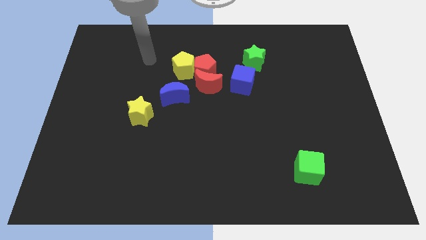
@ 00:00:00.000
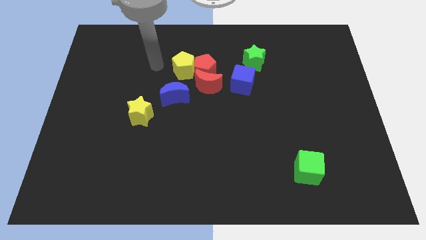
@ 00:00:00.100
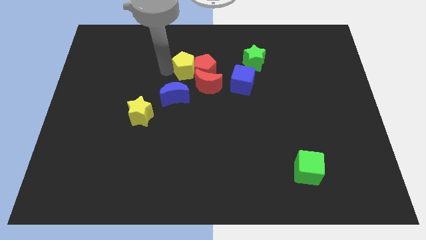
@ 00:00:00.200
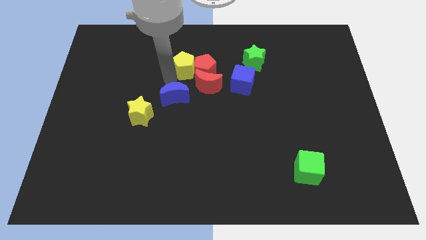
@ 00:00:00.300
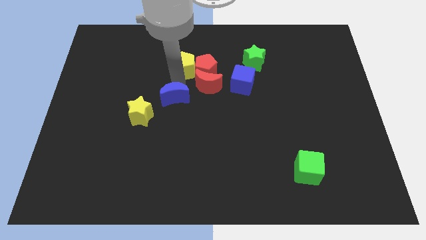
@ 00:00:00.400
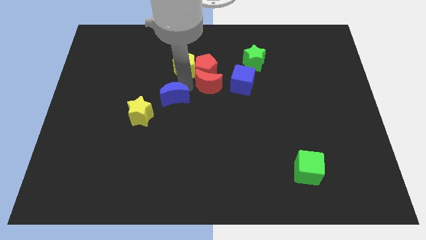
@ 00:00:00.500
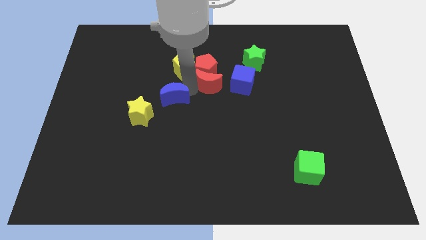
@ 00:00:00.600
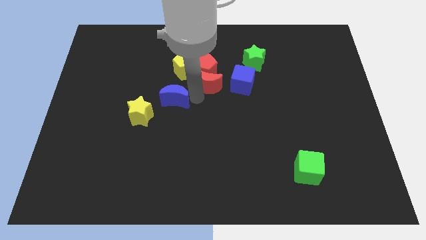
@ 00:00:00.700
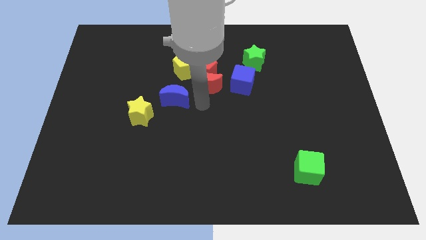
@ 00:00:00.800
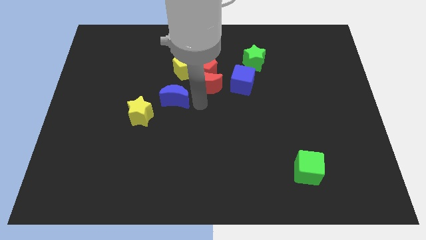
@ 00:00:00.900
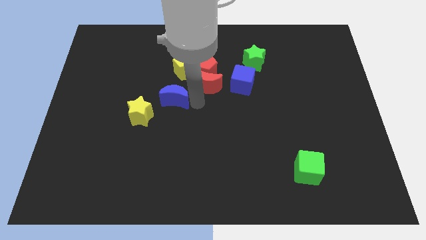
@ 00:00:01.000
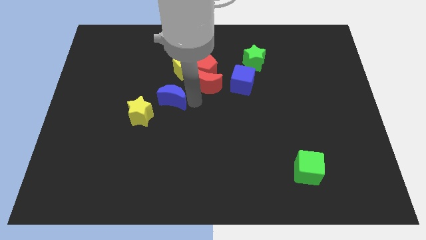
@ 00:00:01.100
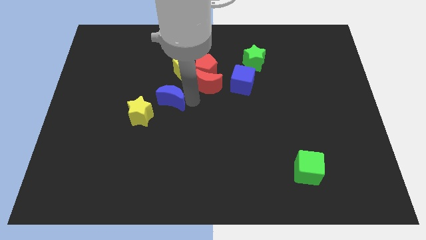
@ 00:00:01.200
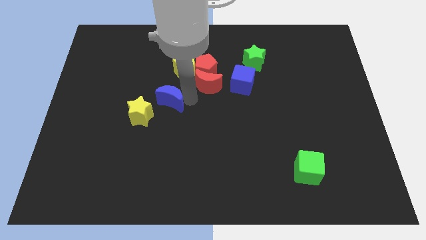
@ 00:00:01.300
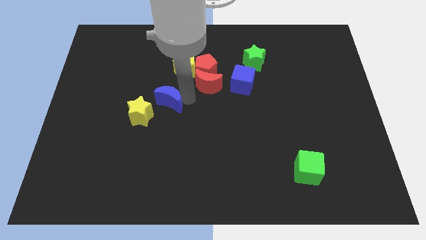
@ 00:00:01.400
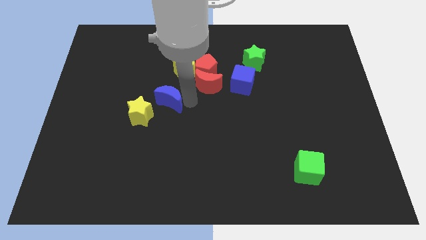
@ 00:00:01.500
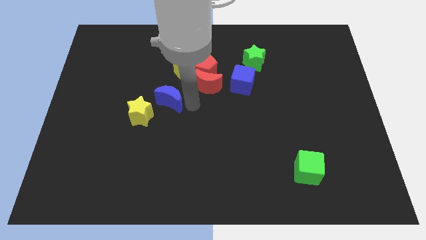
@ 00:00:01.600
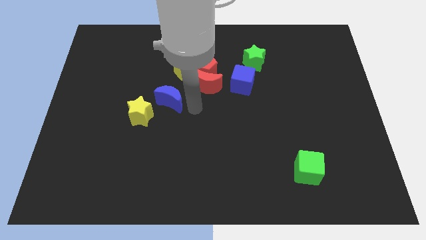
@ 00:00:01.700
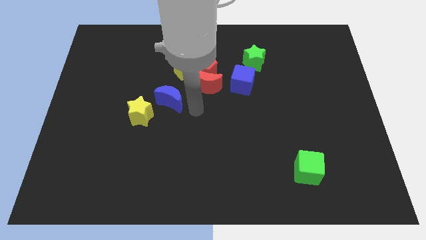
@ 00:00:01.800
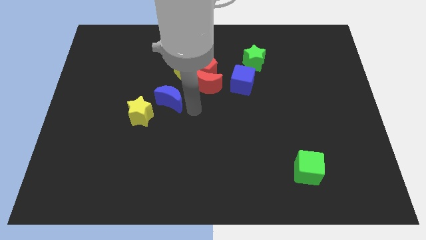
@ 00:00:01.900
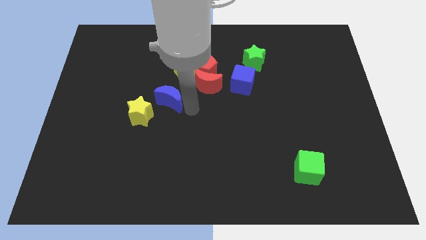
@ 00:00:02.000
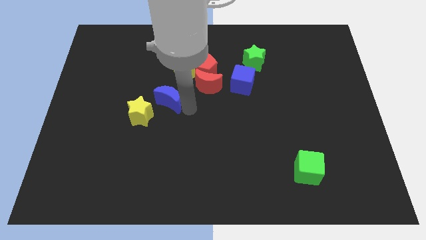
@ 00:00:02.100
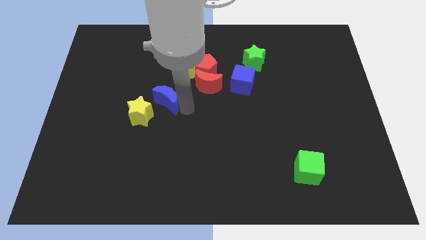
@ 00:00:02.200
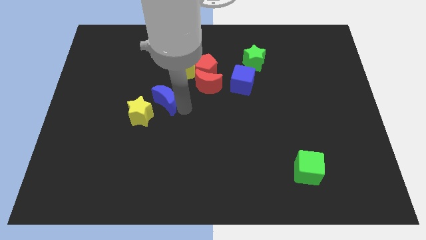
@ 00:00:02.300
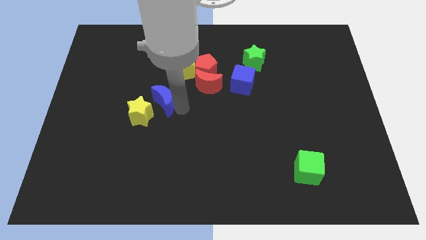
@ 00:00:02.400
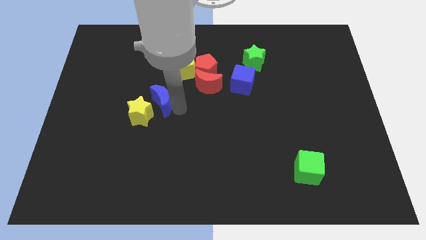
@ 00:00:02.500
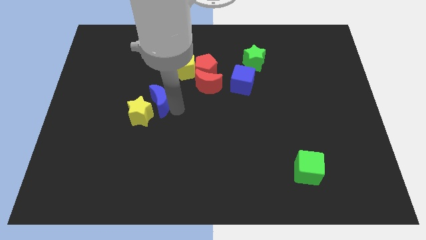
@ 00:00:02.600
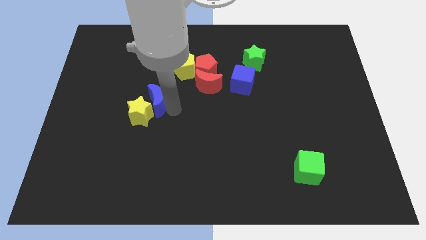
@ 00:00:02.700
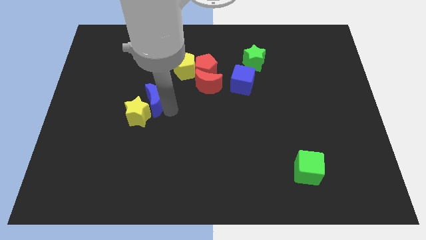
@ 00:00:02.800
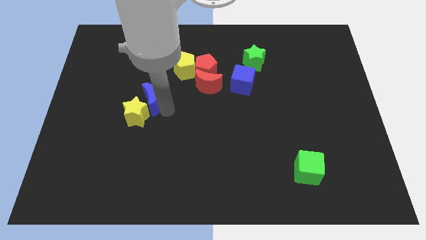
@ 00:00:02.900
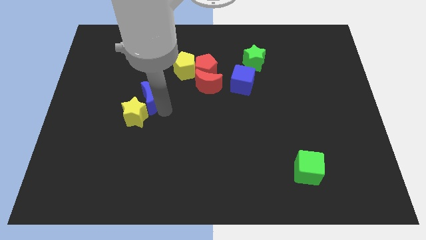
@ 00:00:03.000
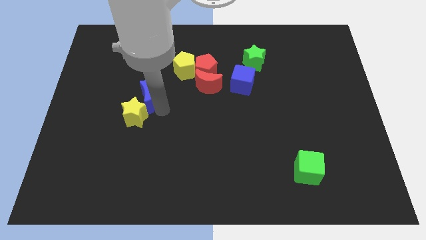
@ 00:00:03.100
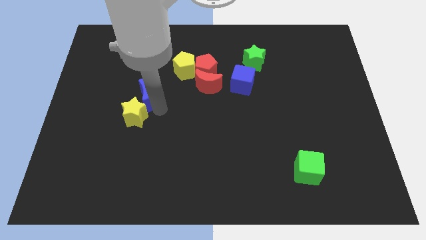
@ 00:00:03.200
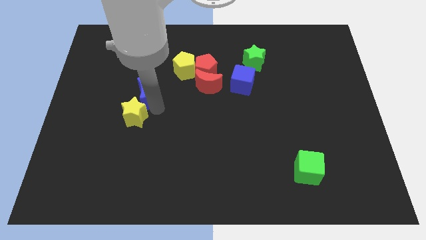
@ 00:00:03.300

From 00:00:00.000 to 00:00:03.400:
slightly move the blue moon to the left

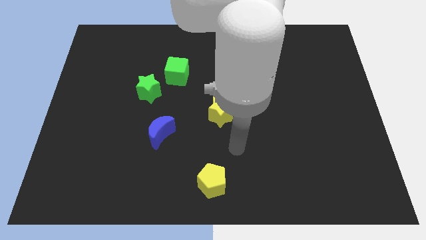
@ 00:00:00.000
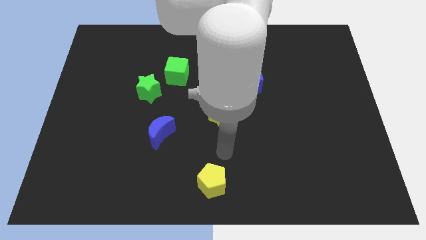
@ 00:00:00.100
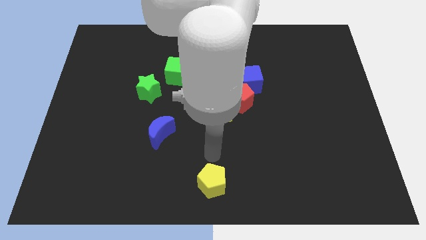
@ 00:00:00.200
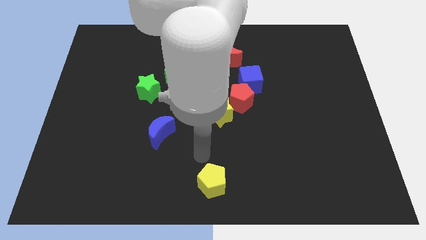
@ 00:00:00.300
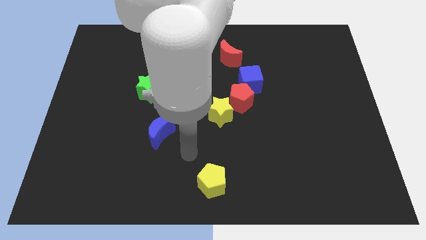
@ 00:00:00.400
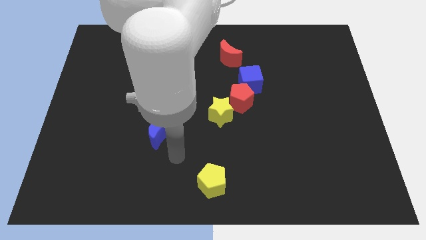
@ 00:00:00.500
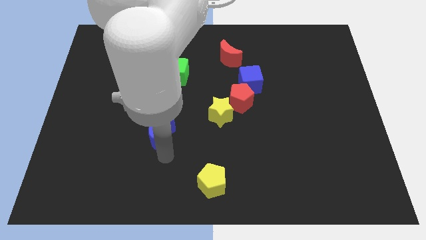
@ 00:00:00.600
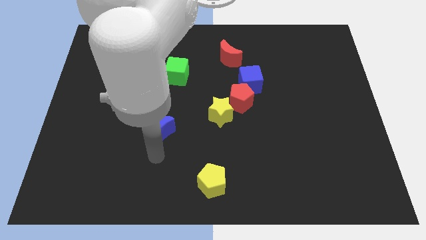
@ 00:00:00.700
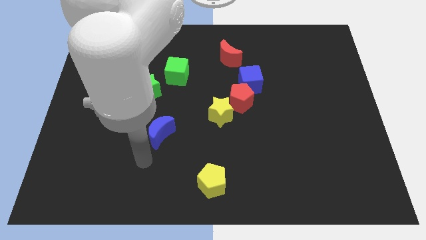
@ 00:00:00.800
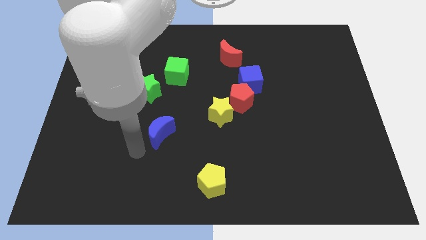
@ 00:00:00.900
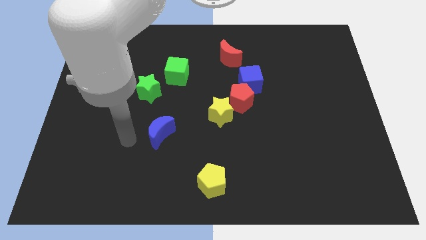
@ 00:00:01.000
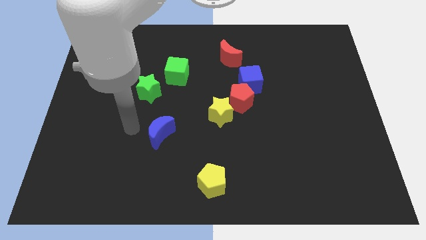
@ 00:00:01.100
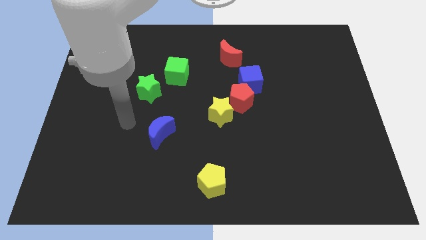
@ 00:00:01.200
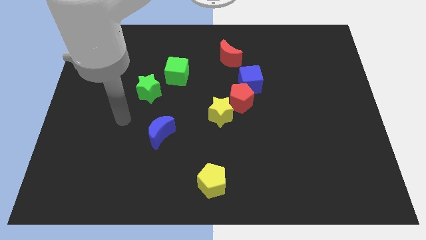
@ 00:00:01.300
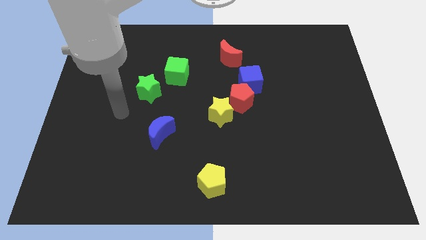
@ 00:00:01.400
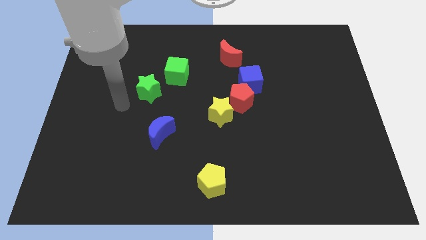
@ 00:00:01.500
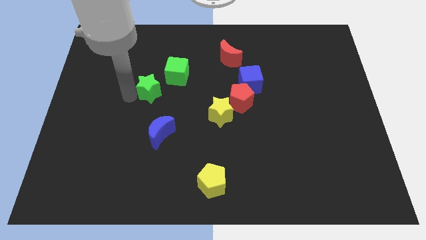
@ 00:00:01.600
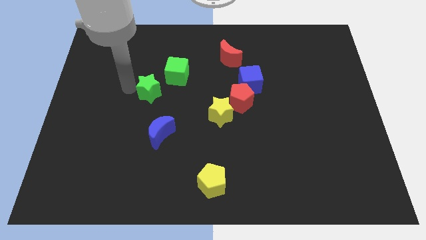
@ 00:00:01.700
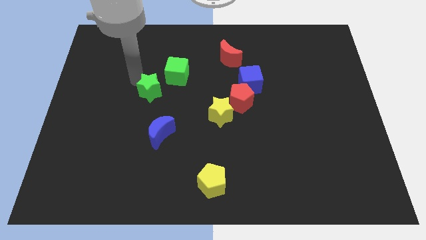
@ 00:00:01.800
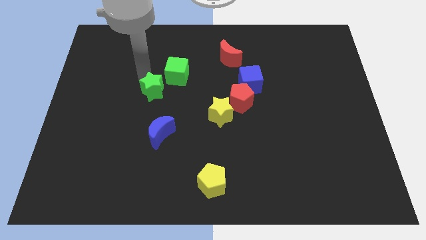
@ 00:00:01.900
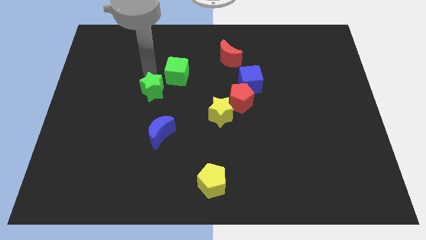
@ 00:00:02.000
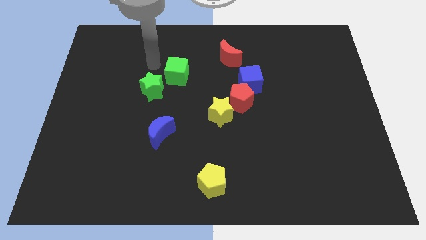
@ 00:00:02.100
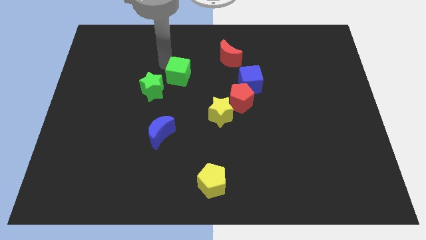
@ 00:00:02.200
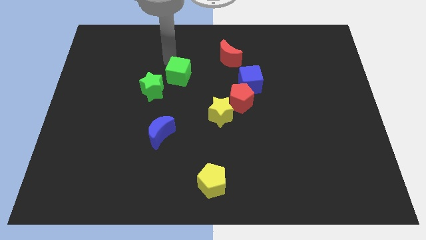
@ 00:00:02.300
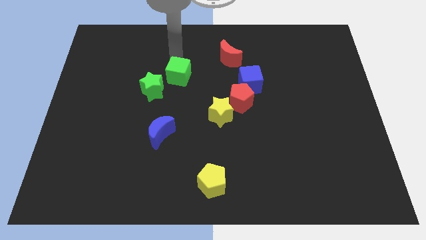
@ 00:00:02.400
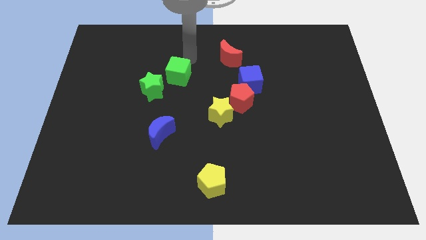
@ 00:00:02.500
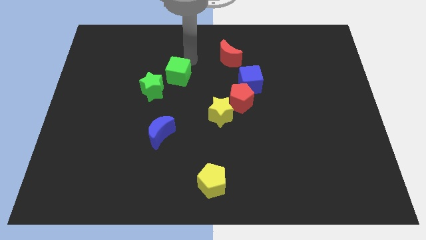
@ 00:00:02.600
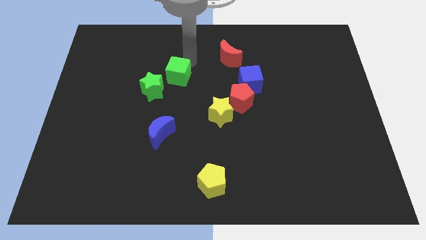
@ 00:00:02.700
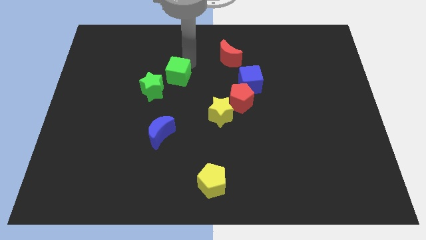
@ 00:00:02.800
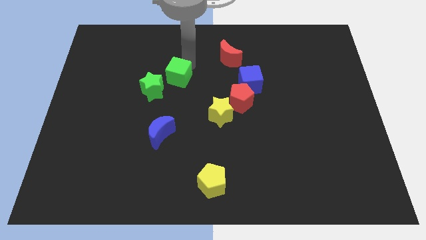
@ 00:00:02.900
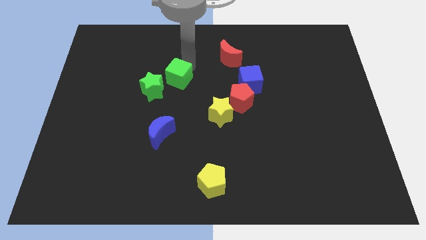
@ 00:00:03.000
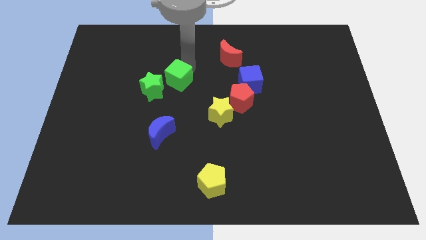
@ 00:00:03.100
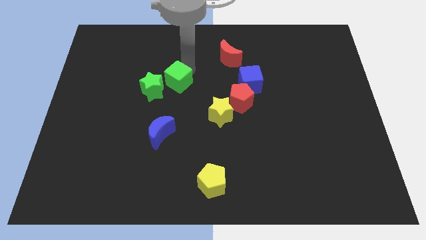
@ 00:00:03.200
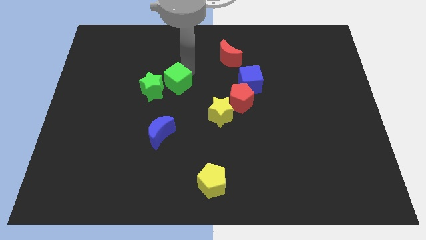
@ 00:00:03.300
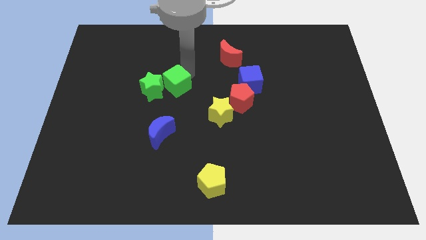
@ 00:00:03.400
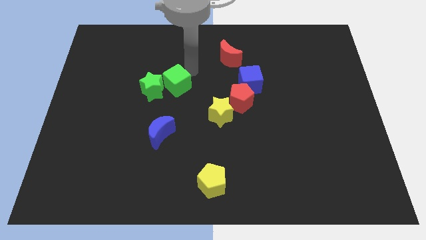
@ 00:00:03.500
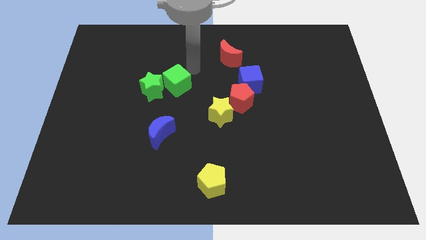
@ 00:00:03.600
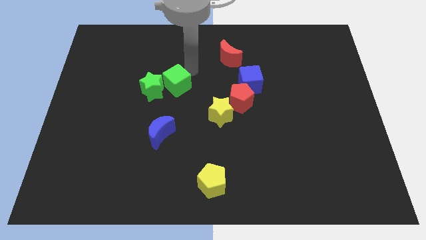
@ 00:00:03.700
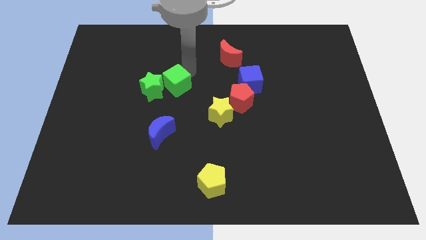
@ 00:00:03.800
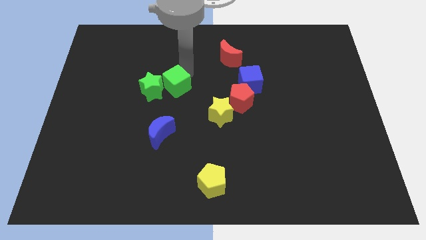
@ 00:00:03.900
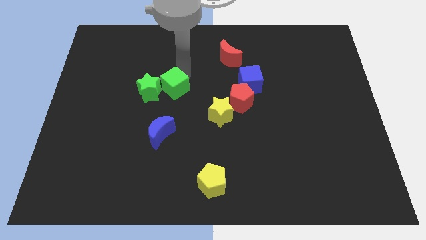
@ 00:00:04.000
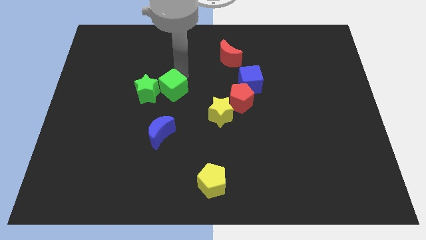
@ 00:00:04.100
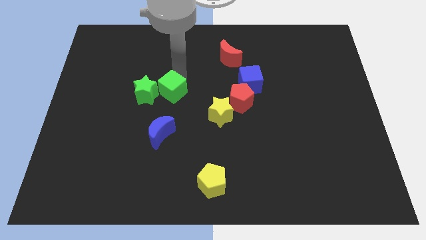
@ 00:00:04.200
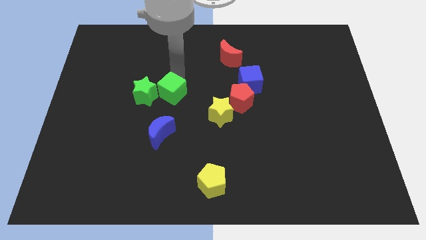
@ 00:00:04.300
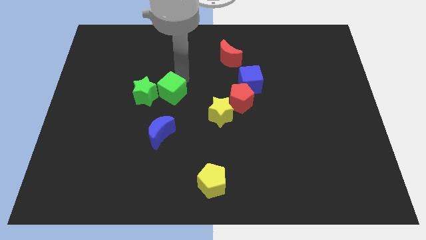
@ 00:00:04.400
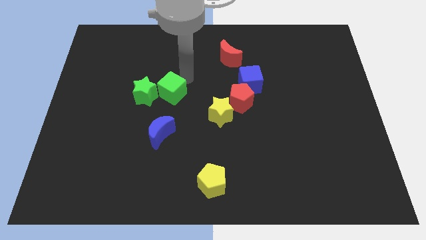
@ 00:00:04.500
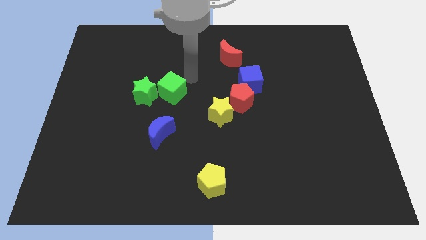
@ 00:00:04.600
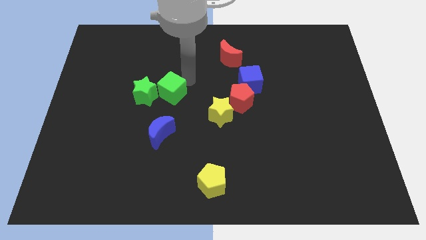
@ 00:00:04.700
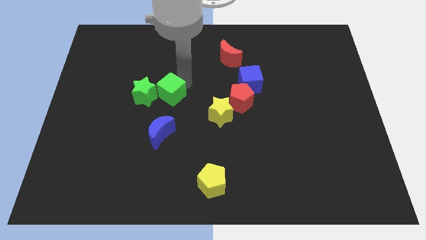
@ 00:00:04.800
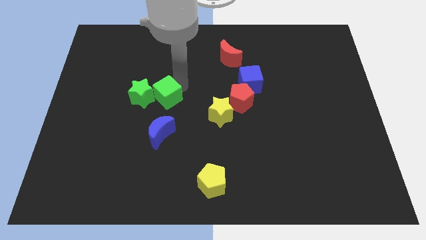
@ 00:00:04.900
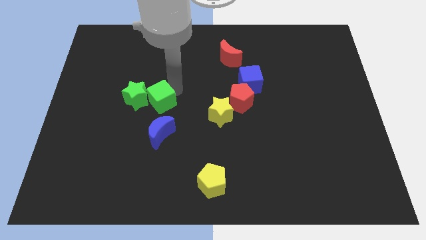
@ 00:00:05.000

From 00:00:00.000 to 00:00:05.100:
move the green cube a little down and left diagonally
